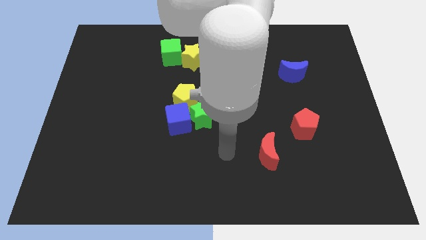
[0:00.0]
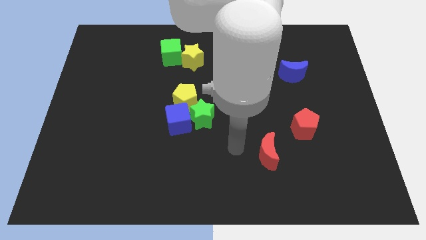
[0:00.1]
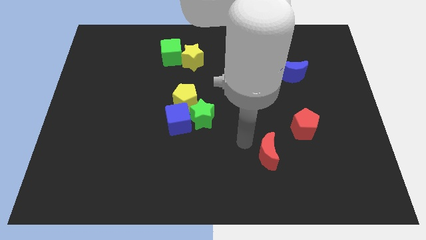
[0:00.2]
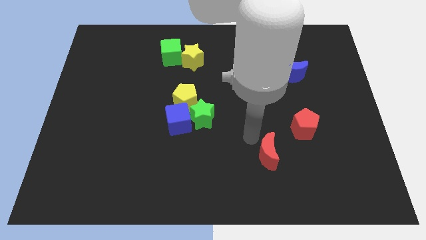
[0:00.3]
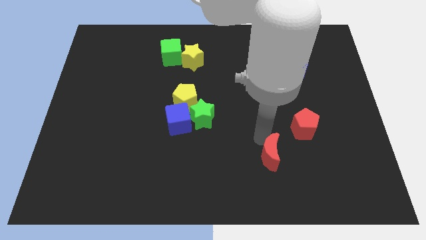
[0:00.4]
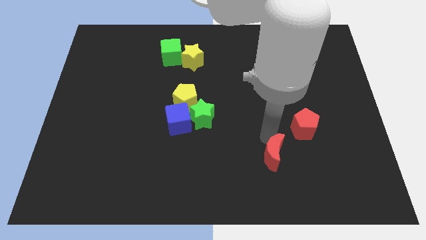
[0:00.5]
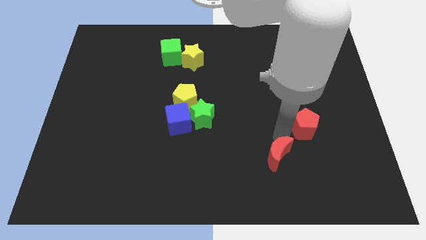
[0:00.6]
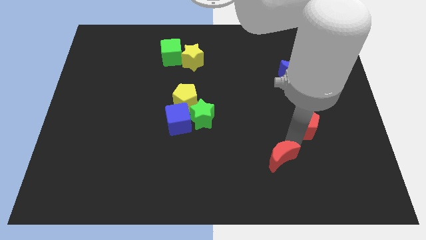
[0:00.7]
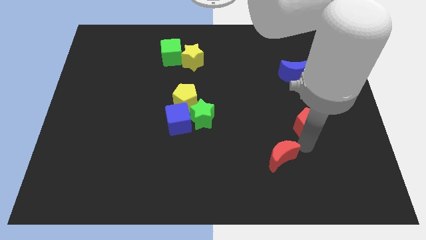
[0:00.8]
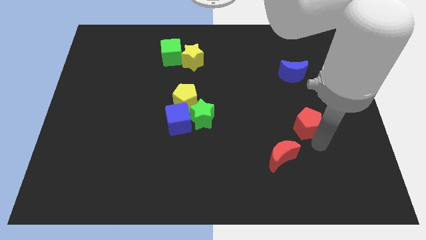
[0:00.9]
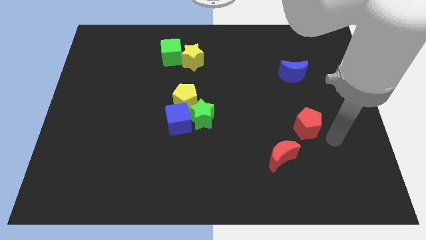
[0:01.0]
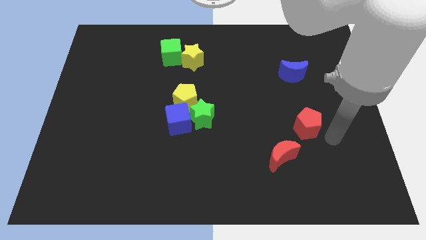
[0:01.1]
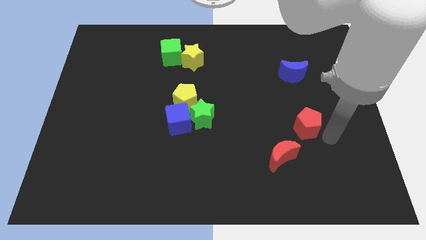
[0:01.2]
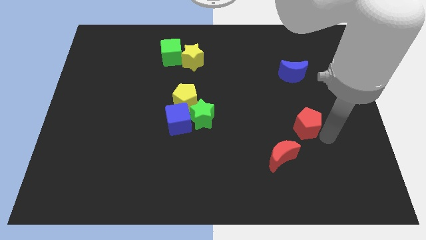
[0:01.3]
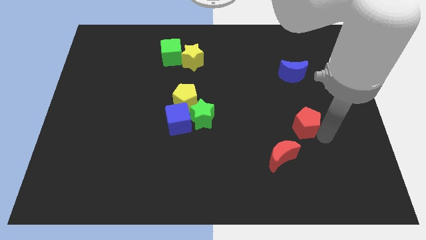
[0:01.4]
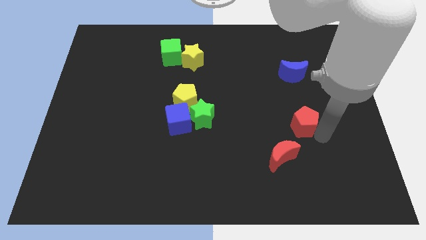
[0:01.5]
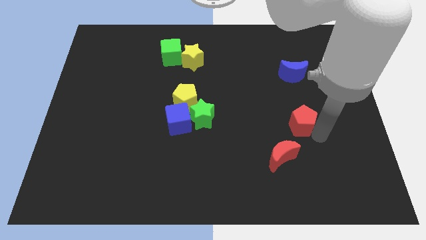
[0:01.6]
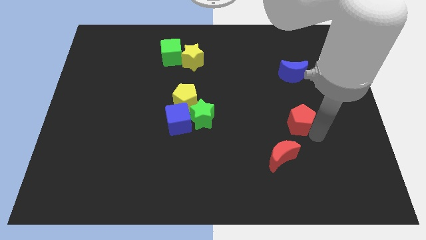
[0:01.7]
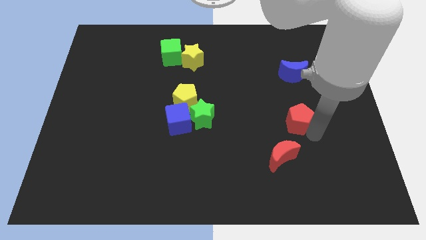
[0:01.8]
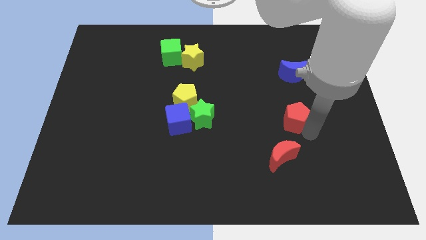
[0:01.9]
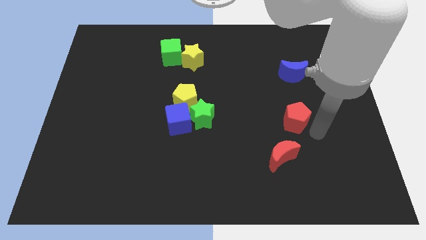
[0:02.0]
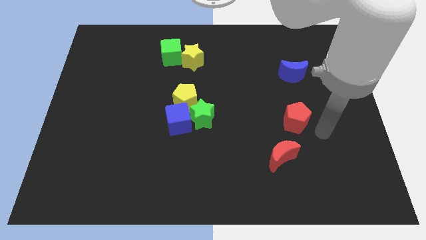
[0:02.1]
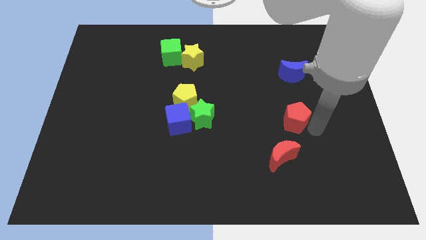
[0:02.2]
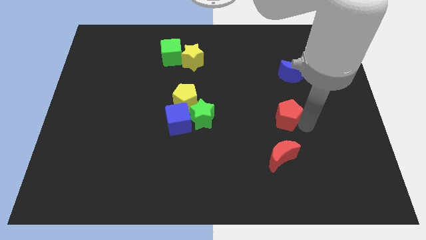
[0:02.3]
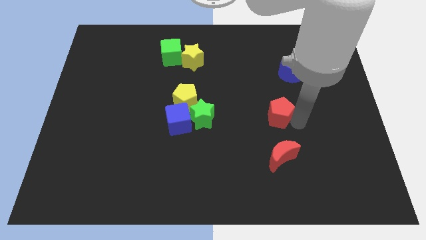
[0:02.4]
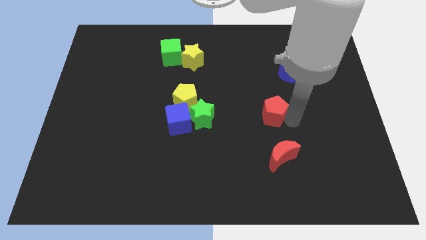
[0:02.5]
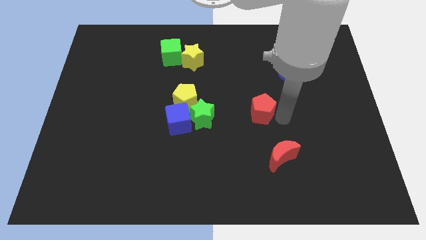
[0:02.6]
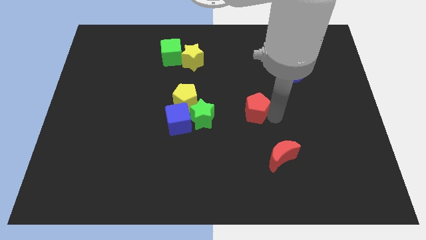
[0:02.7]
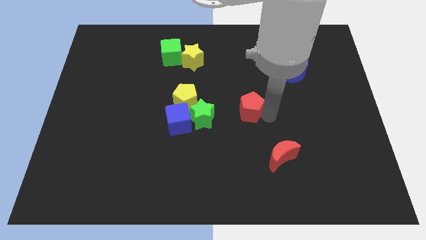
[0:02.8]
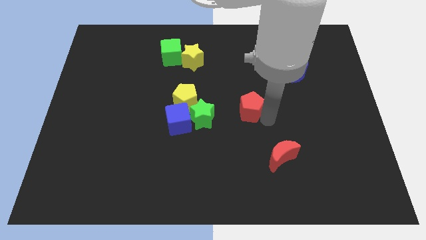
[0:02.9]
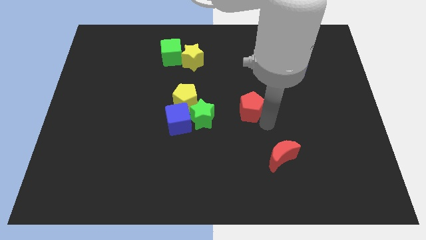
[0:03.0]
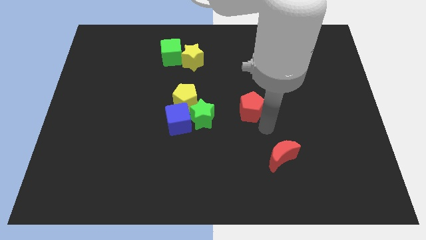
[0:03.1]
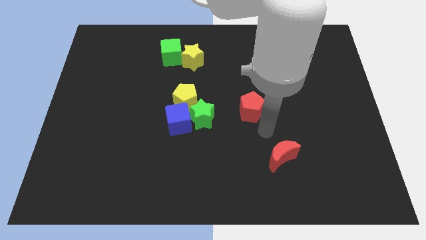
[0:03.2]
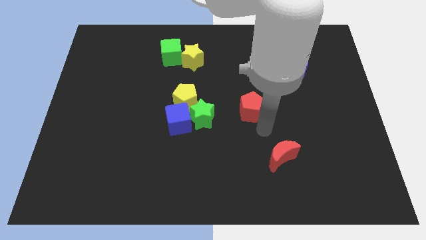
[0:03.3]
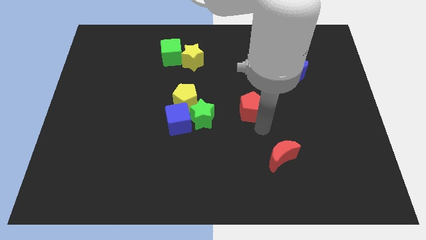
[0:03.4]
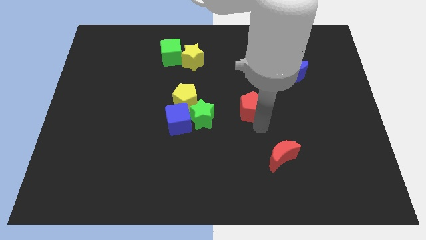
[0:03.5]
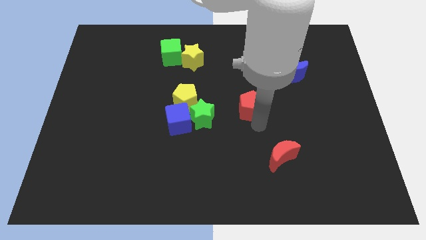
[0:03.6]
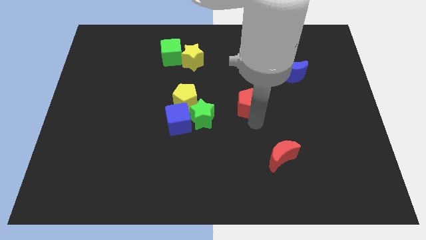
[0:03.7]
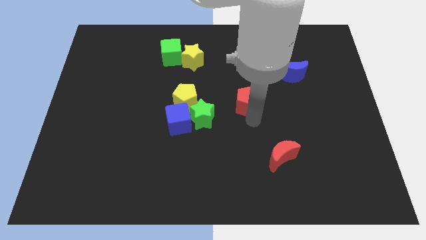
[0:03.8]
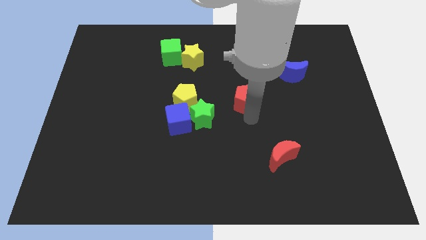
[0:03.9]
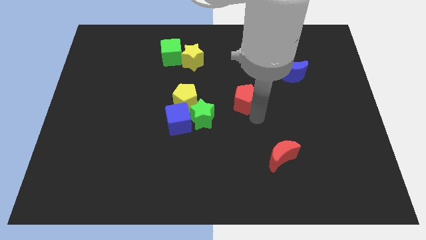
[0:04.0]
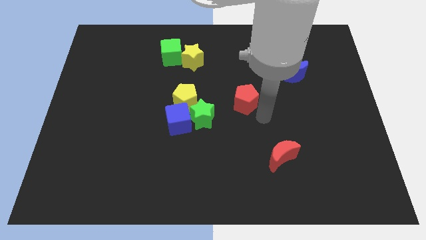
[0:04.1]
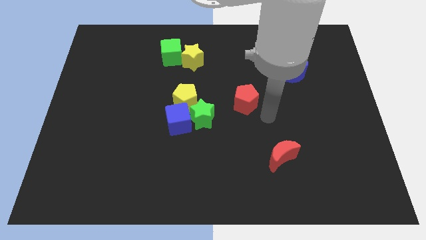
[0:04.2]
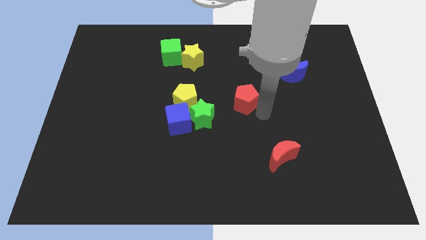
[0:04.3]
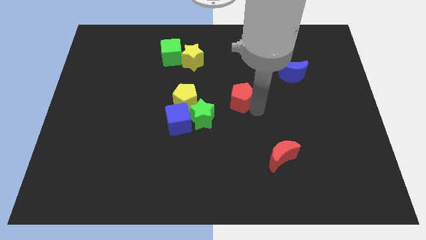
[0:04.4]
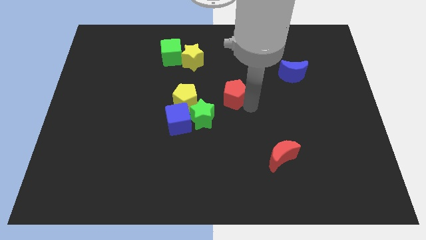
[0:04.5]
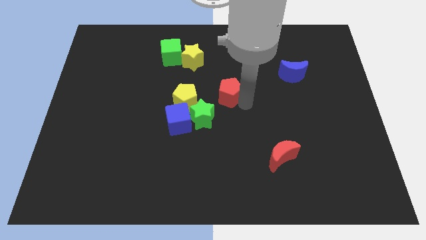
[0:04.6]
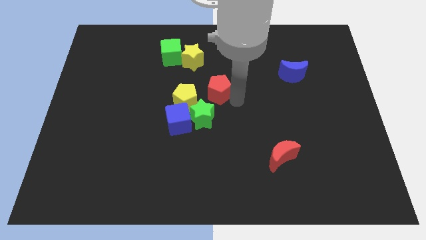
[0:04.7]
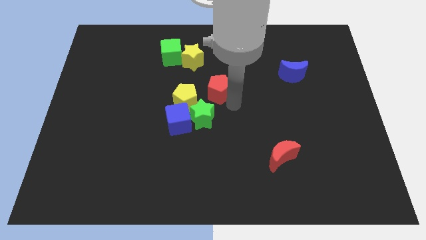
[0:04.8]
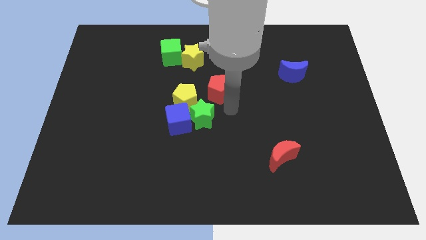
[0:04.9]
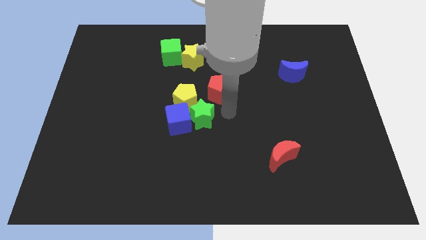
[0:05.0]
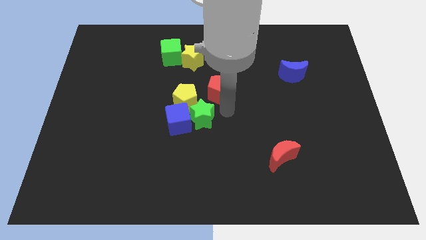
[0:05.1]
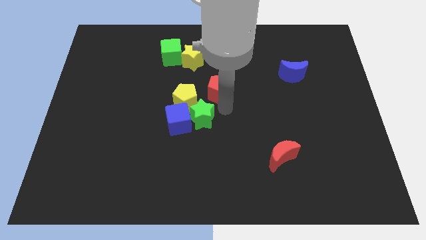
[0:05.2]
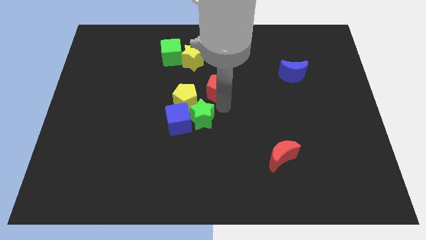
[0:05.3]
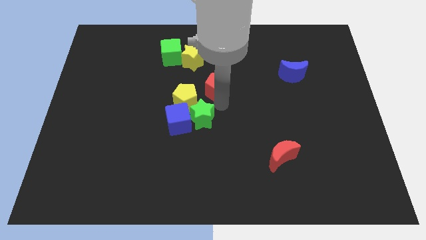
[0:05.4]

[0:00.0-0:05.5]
put the red pentagon to the bottom right side of the yellow star

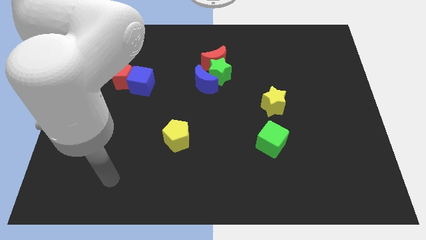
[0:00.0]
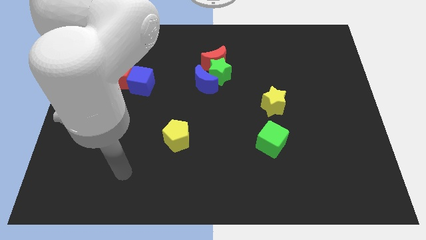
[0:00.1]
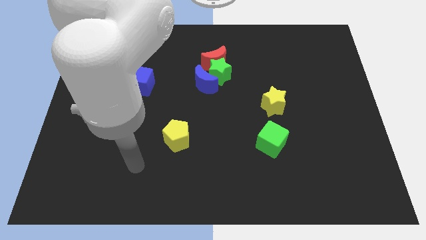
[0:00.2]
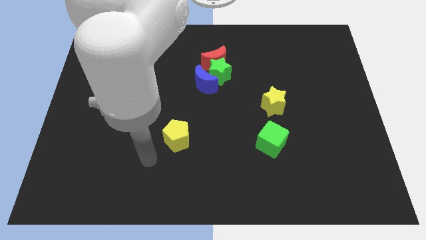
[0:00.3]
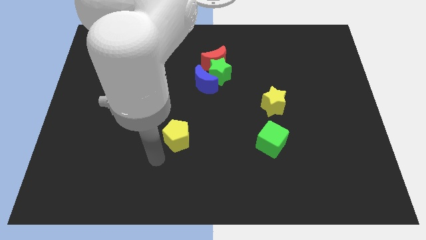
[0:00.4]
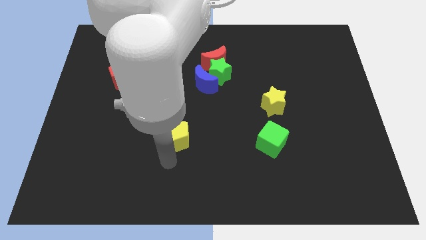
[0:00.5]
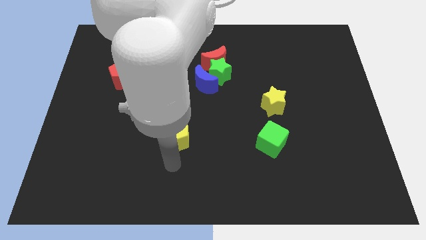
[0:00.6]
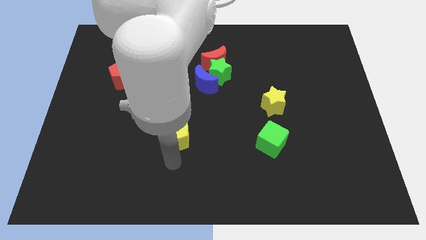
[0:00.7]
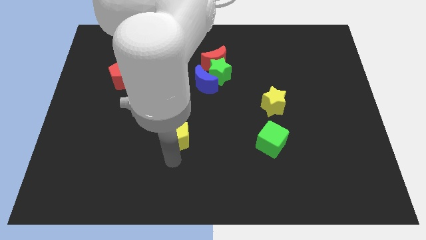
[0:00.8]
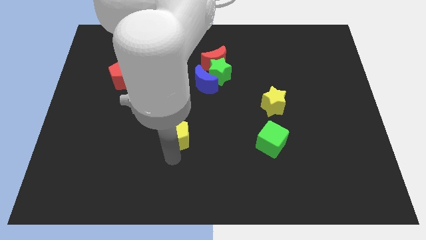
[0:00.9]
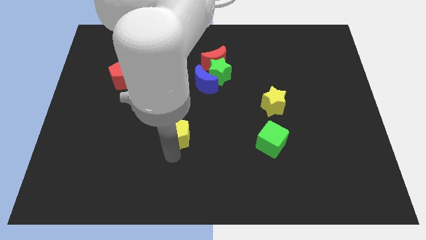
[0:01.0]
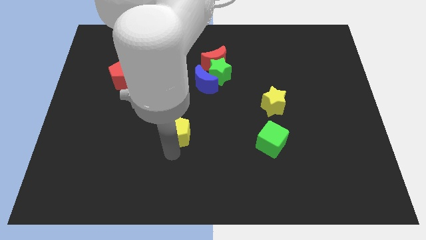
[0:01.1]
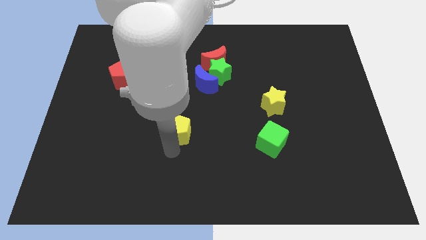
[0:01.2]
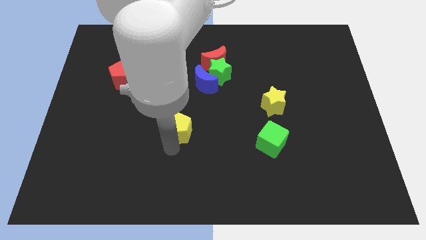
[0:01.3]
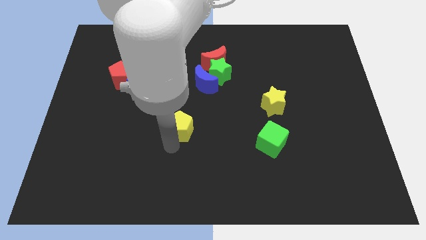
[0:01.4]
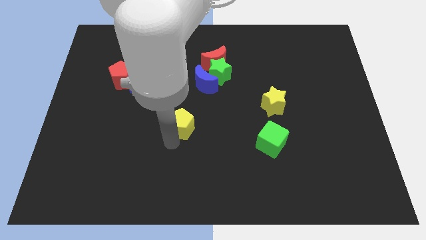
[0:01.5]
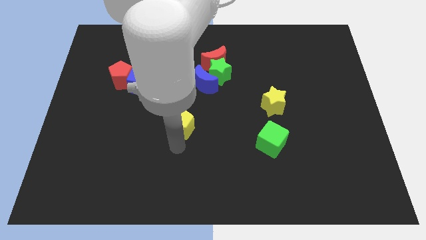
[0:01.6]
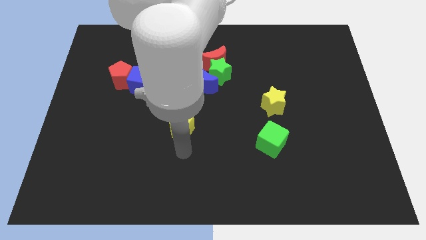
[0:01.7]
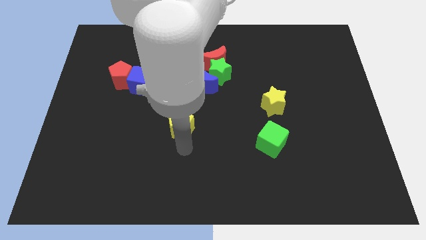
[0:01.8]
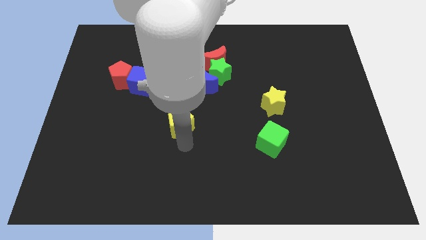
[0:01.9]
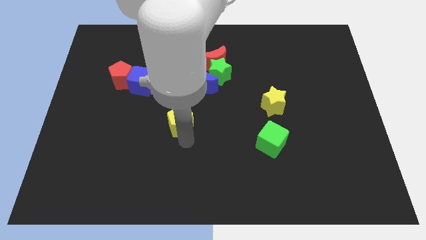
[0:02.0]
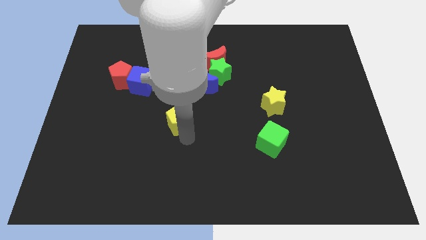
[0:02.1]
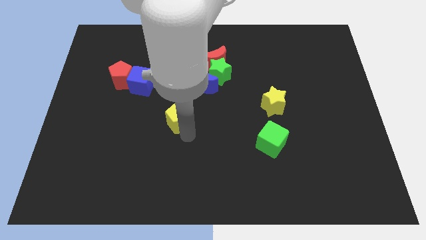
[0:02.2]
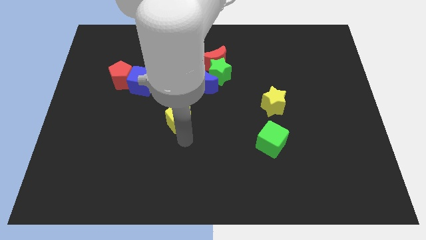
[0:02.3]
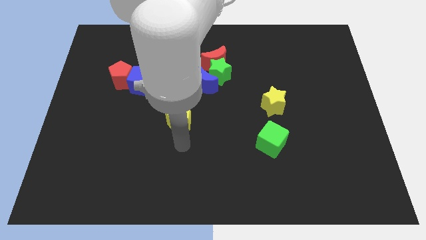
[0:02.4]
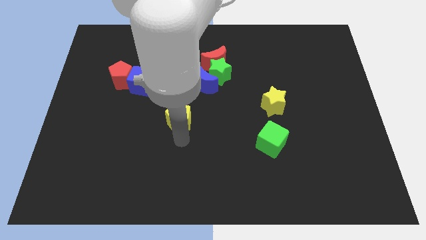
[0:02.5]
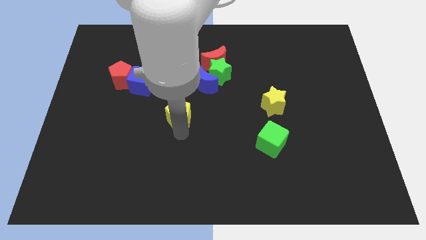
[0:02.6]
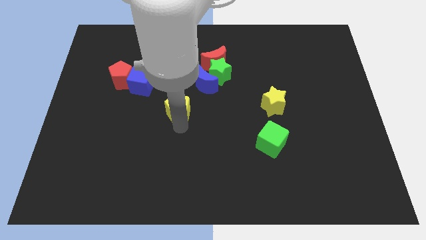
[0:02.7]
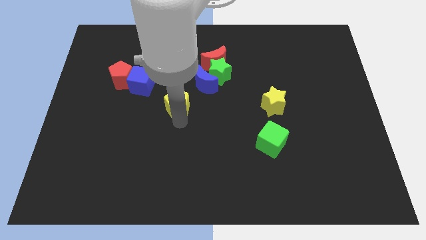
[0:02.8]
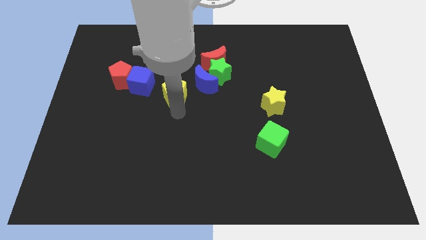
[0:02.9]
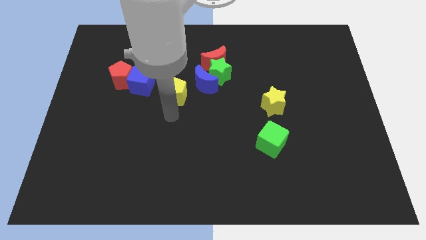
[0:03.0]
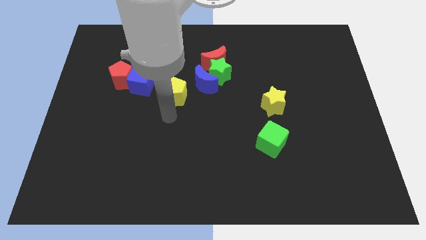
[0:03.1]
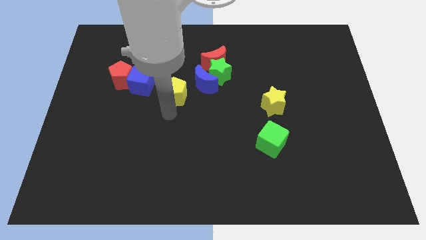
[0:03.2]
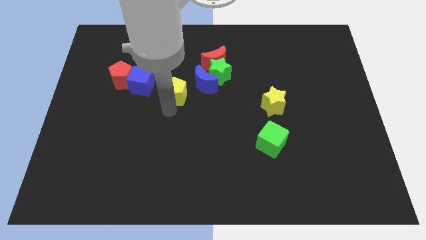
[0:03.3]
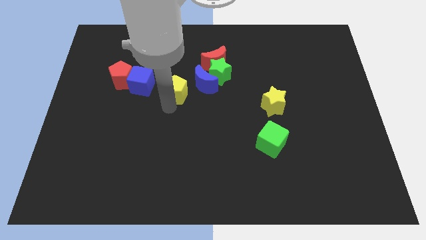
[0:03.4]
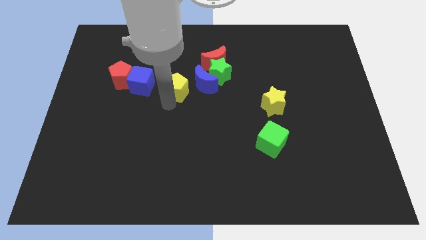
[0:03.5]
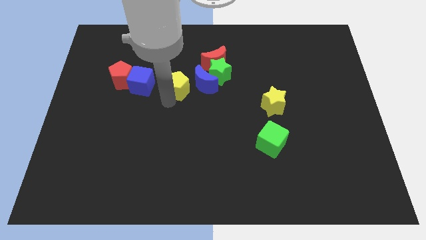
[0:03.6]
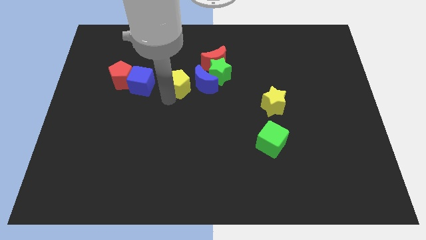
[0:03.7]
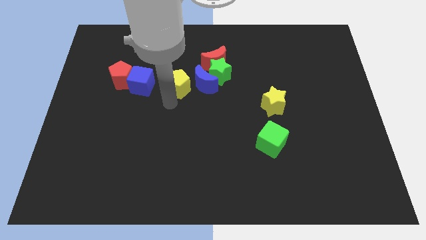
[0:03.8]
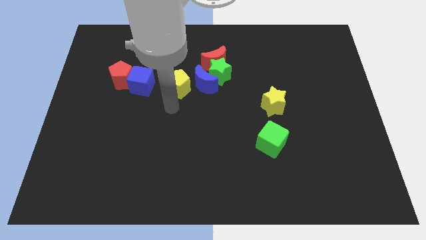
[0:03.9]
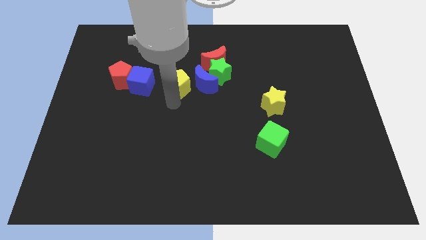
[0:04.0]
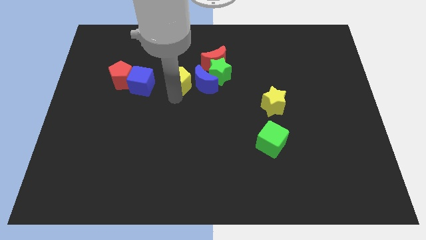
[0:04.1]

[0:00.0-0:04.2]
slide the yellow pentagon diagonally up and to the left of the blue moon
